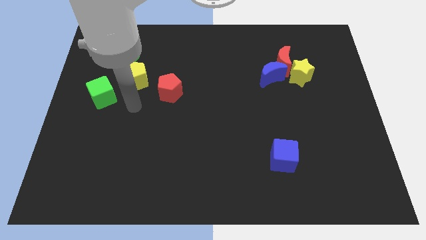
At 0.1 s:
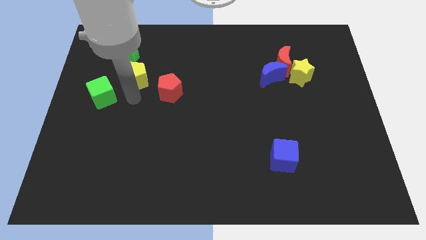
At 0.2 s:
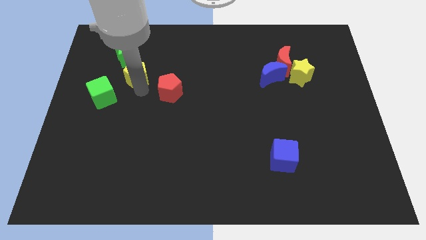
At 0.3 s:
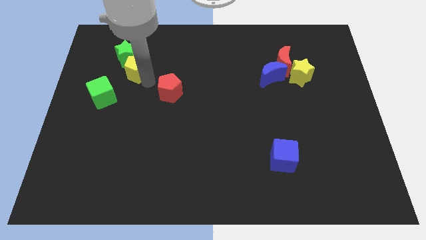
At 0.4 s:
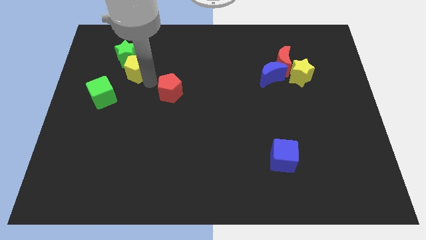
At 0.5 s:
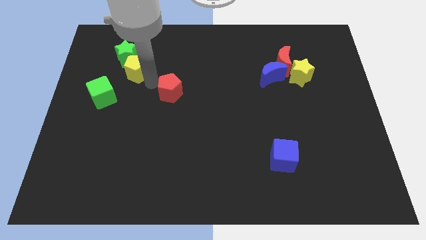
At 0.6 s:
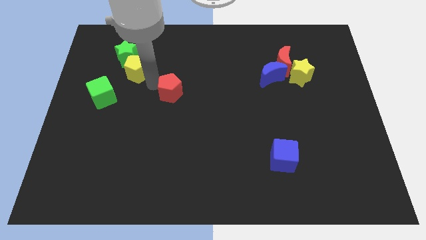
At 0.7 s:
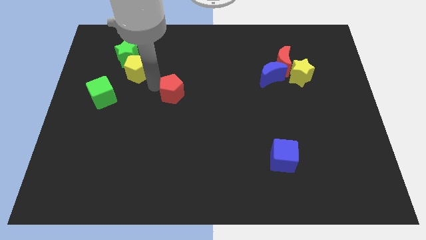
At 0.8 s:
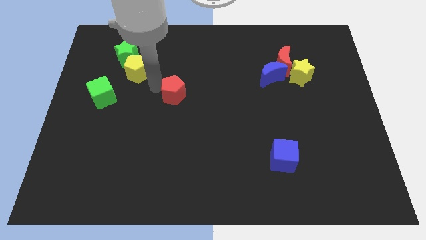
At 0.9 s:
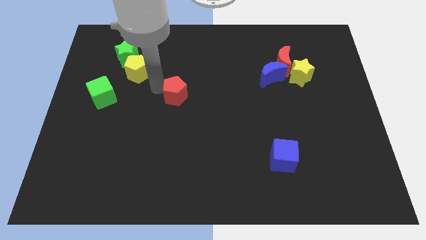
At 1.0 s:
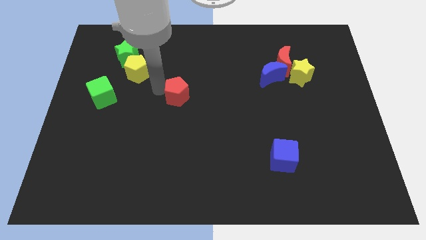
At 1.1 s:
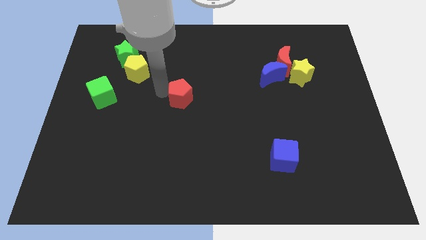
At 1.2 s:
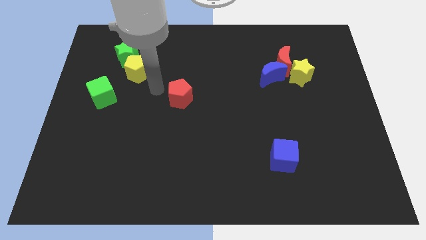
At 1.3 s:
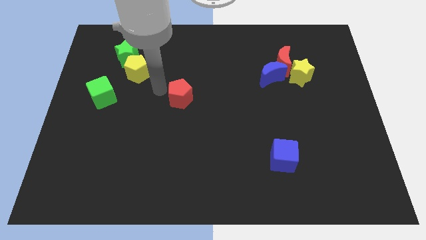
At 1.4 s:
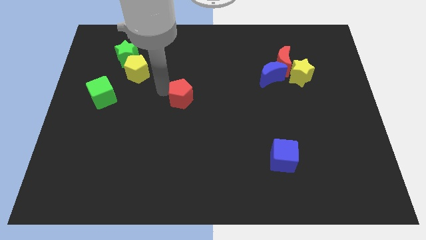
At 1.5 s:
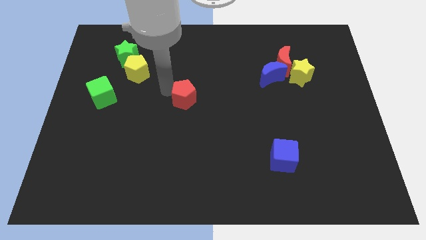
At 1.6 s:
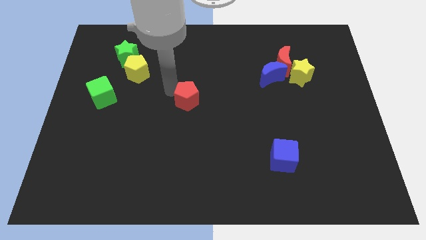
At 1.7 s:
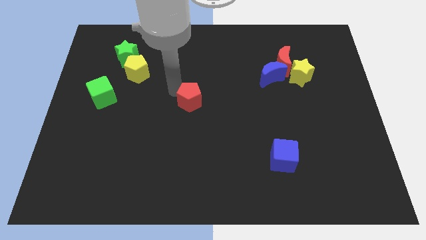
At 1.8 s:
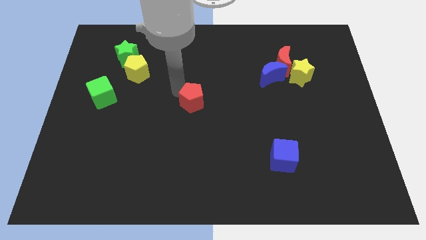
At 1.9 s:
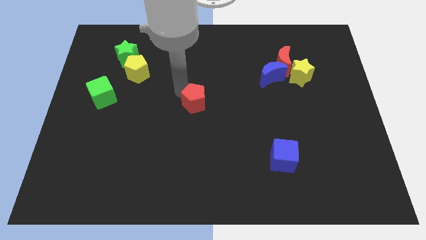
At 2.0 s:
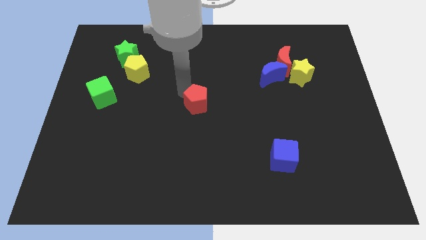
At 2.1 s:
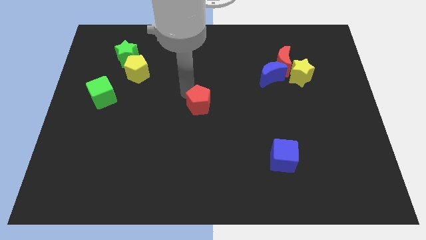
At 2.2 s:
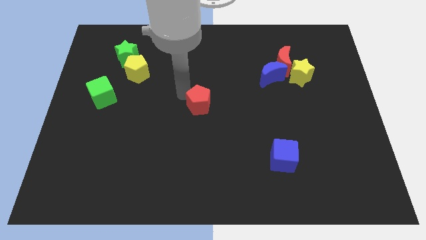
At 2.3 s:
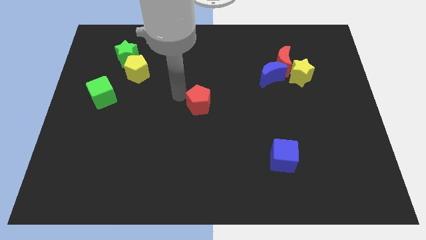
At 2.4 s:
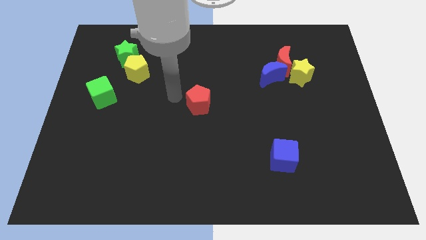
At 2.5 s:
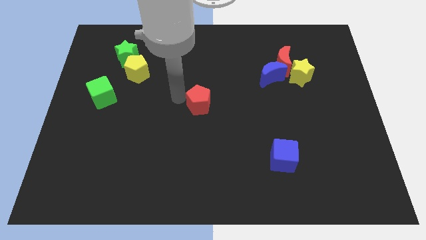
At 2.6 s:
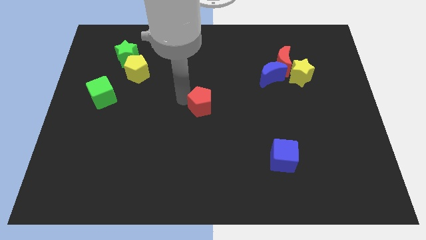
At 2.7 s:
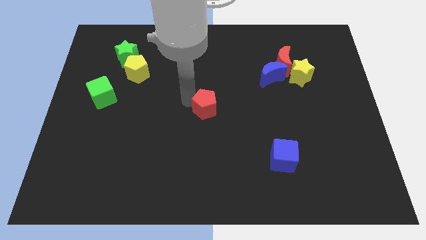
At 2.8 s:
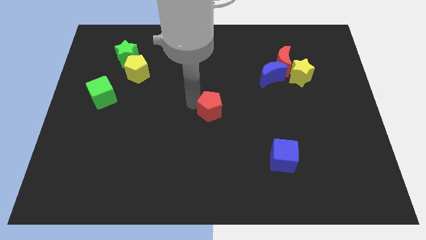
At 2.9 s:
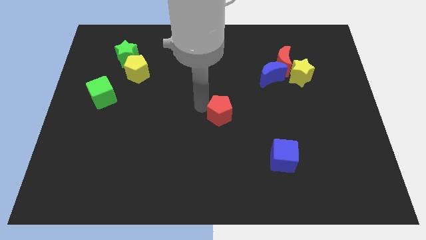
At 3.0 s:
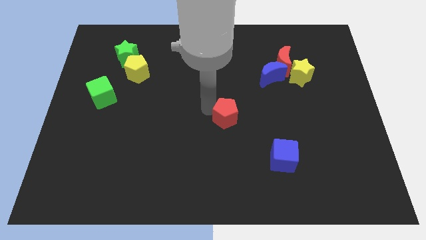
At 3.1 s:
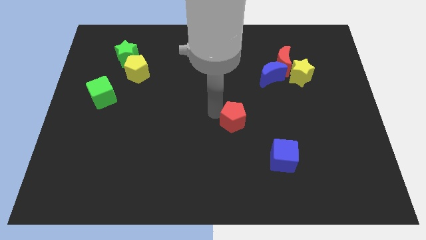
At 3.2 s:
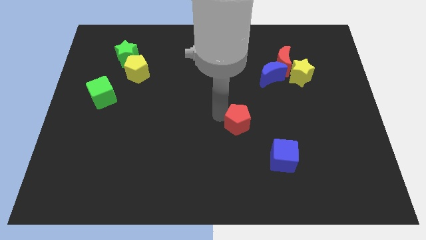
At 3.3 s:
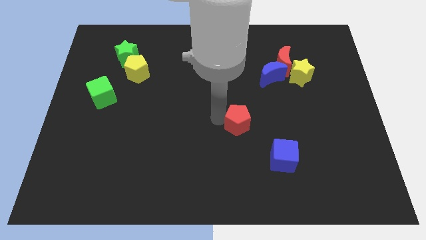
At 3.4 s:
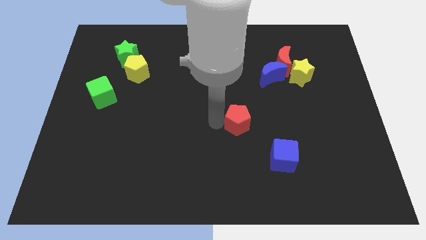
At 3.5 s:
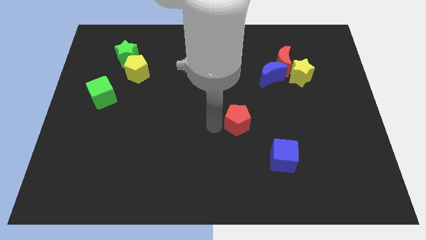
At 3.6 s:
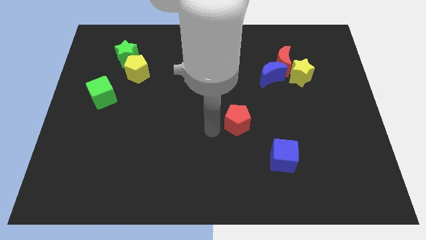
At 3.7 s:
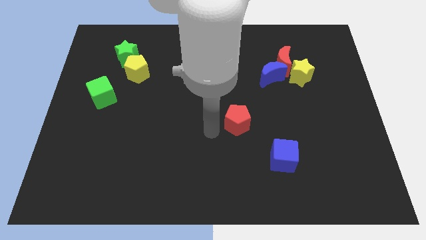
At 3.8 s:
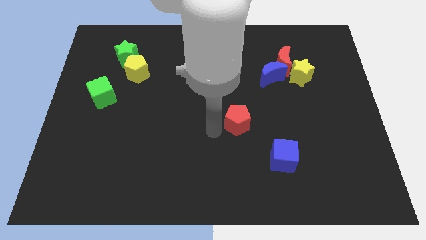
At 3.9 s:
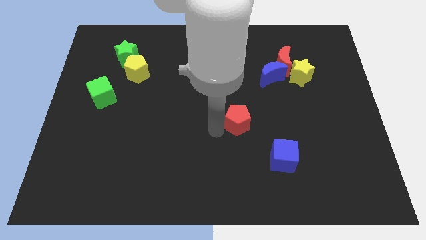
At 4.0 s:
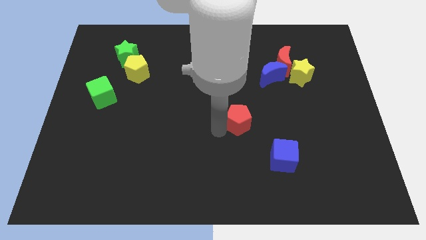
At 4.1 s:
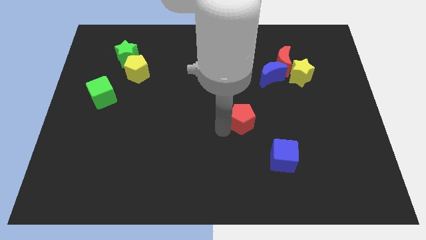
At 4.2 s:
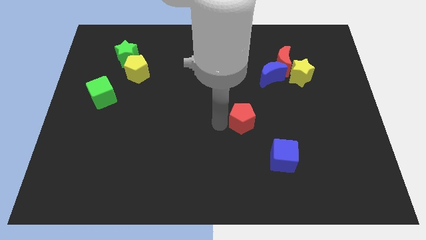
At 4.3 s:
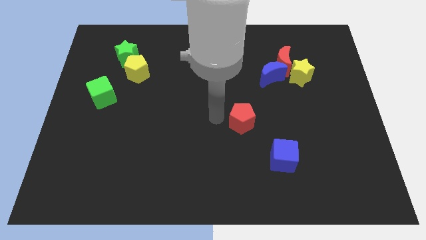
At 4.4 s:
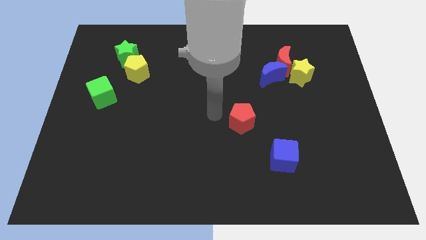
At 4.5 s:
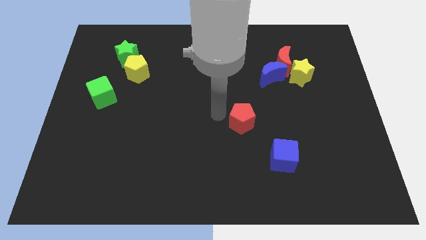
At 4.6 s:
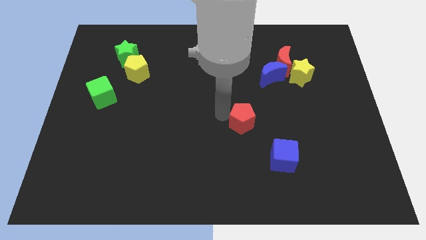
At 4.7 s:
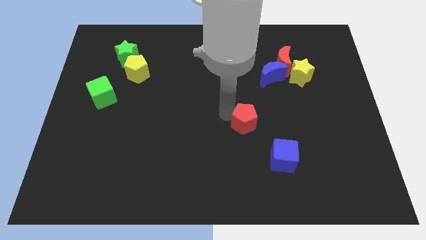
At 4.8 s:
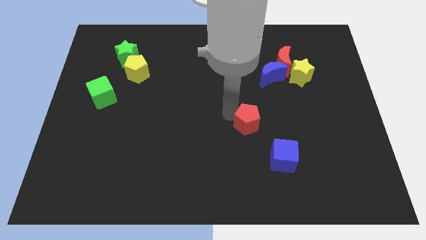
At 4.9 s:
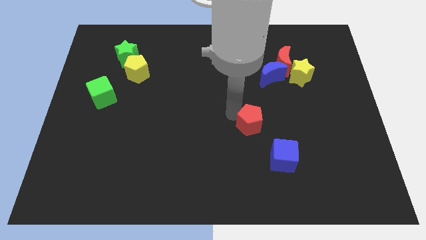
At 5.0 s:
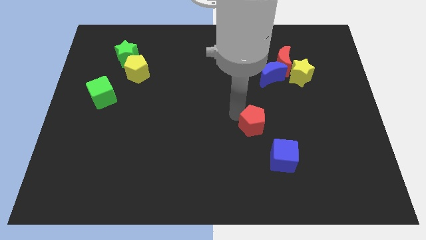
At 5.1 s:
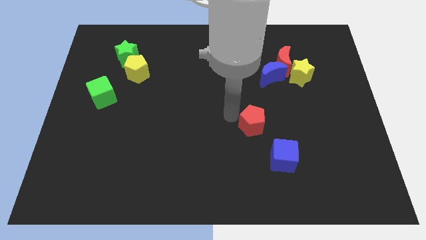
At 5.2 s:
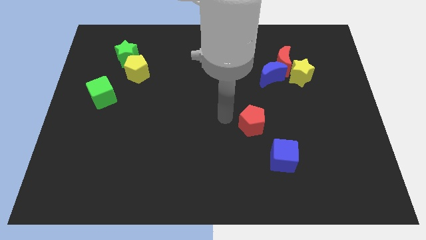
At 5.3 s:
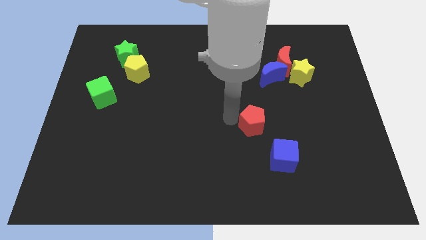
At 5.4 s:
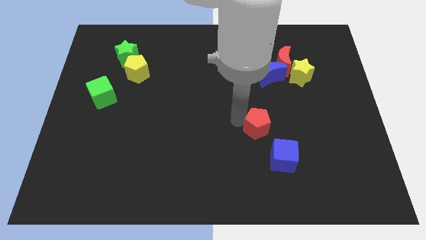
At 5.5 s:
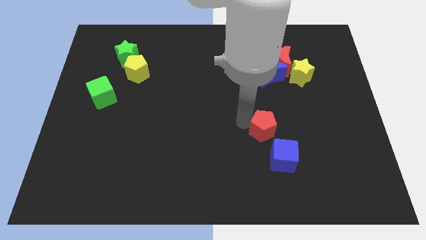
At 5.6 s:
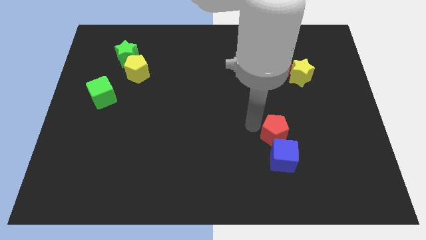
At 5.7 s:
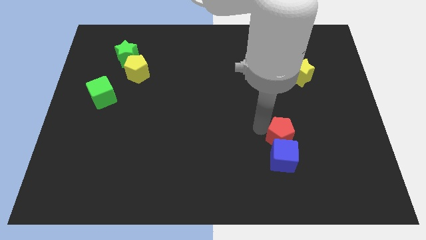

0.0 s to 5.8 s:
move the red pentagon diagonally up and to the right of the blue cube

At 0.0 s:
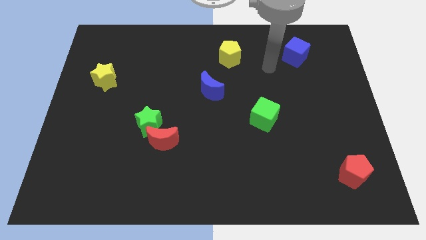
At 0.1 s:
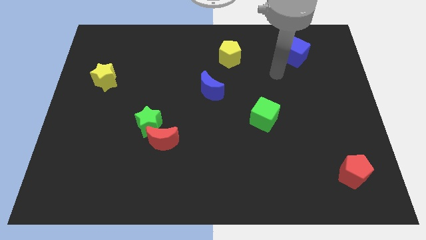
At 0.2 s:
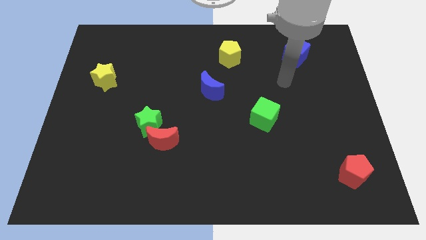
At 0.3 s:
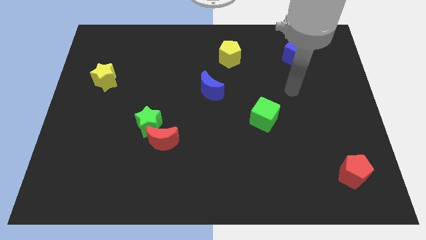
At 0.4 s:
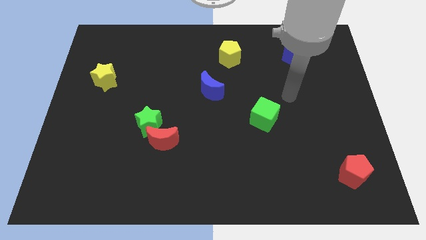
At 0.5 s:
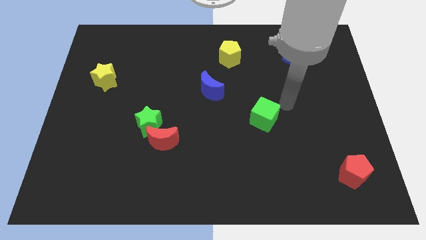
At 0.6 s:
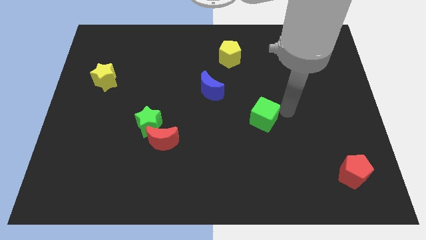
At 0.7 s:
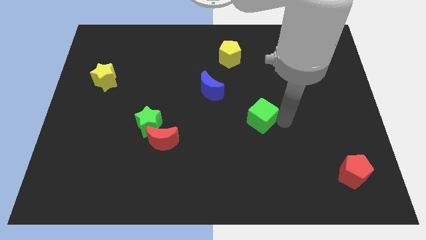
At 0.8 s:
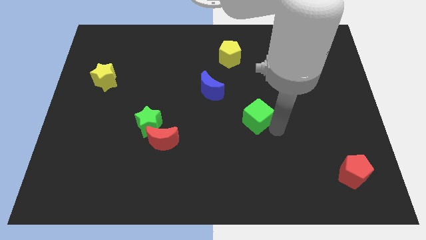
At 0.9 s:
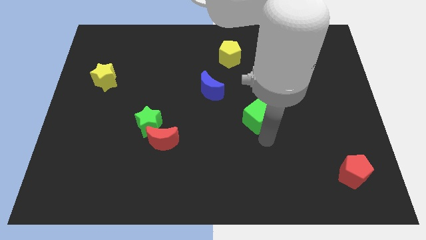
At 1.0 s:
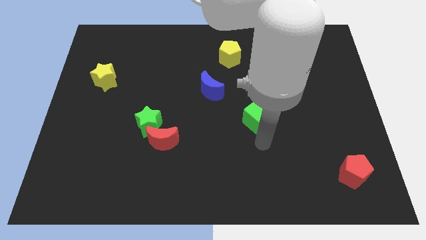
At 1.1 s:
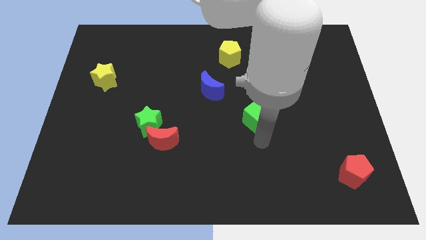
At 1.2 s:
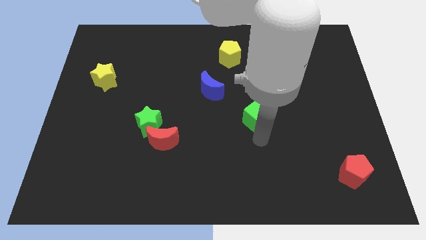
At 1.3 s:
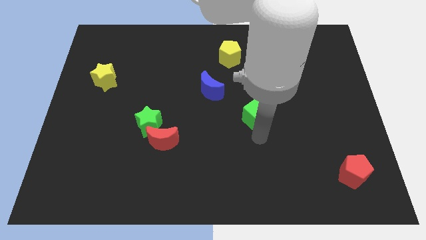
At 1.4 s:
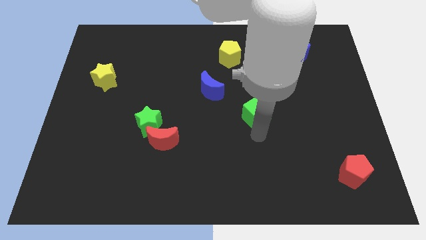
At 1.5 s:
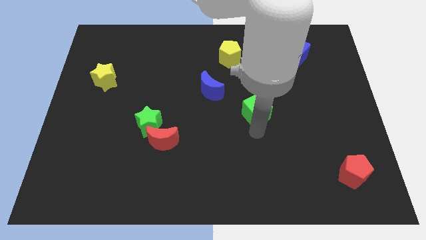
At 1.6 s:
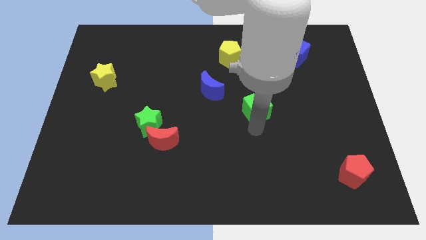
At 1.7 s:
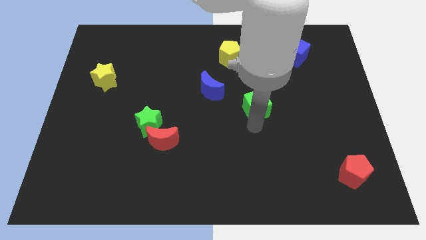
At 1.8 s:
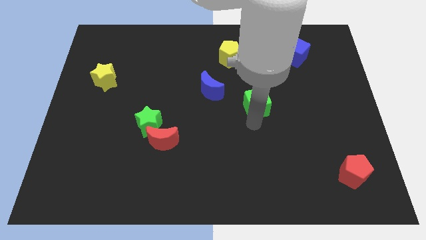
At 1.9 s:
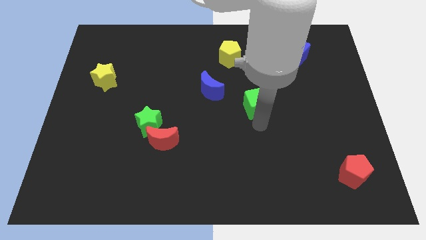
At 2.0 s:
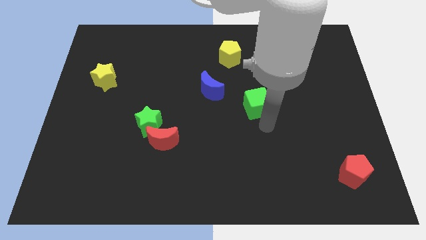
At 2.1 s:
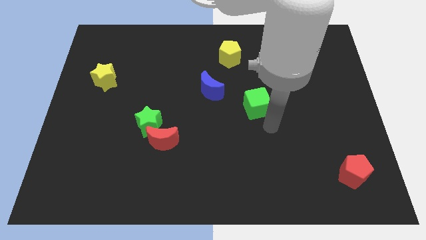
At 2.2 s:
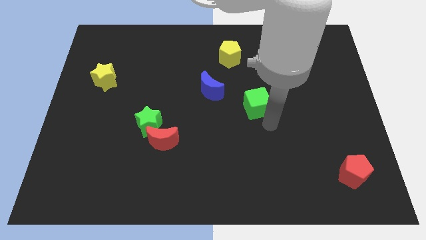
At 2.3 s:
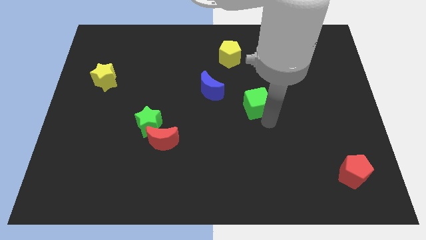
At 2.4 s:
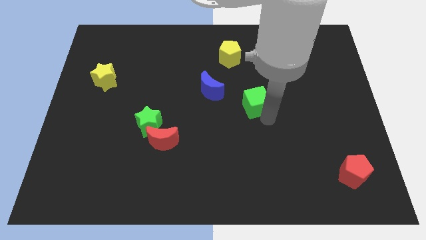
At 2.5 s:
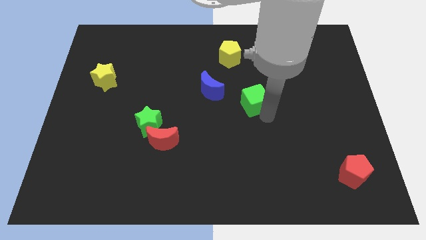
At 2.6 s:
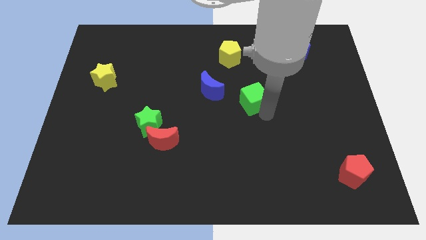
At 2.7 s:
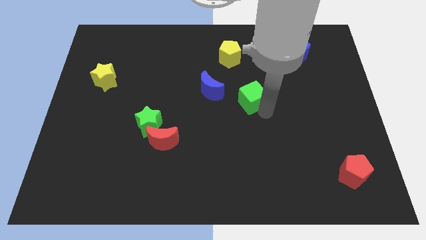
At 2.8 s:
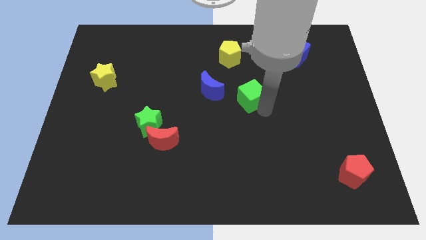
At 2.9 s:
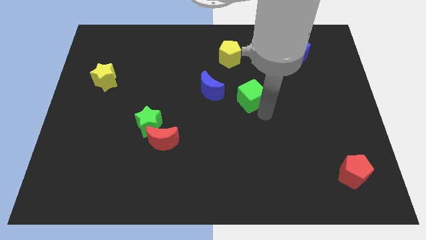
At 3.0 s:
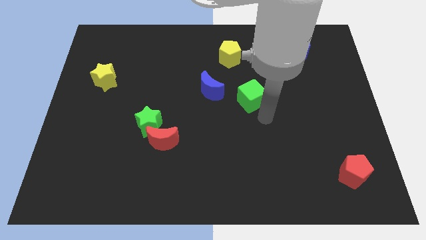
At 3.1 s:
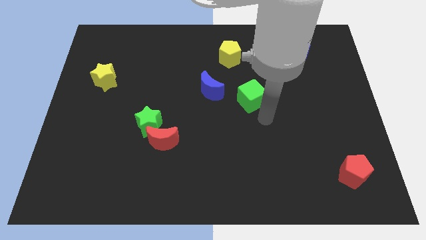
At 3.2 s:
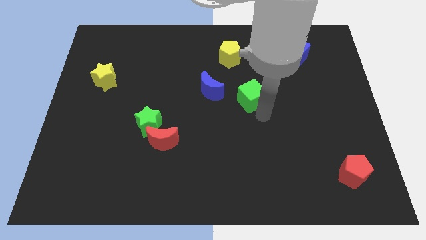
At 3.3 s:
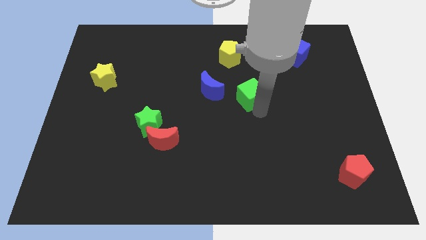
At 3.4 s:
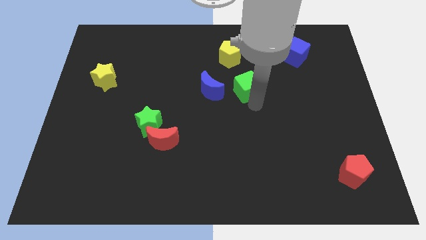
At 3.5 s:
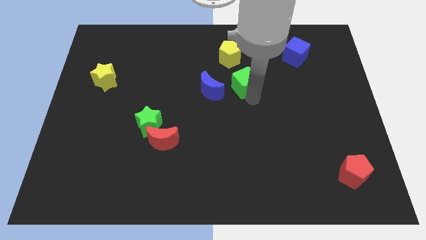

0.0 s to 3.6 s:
slide the green cube to the top right of the blue moon
